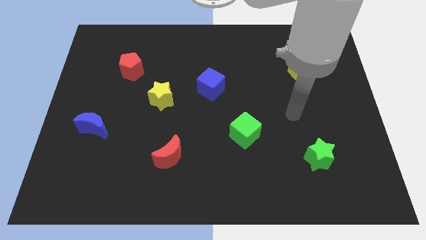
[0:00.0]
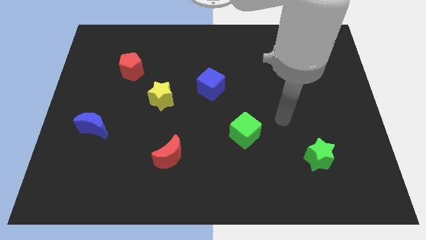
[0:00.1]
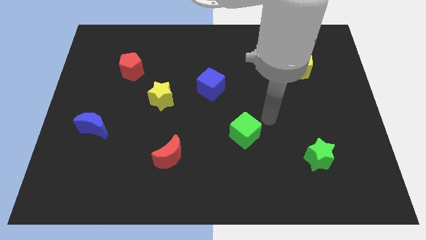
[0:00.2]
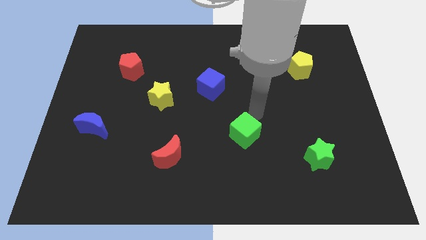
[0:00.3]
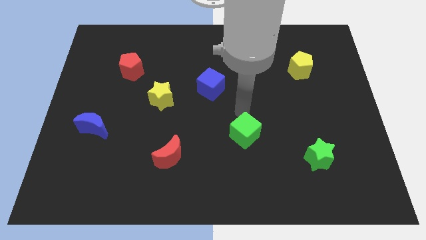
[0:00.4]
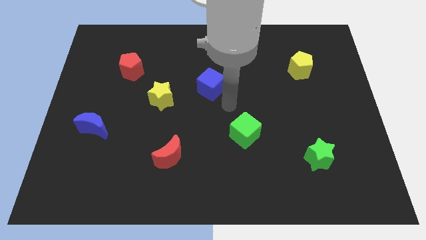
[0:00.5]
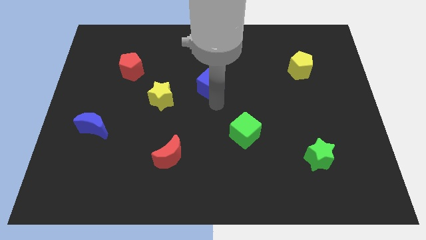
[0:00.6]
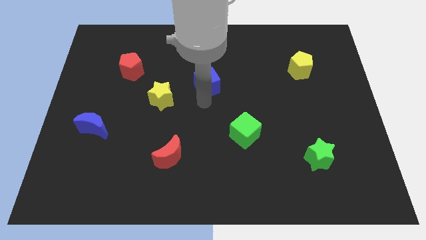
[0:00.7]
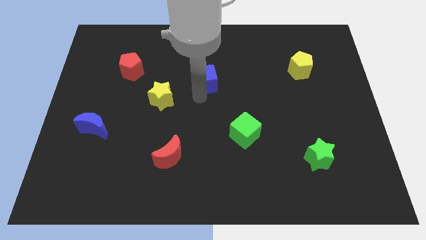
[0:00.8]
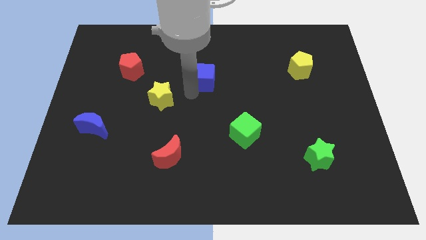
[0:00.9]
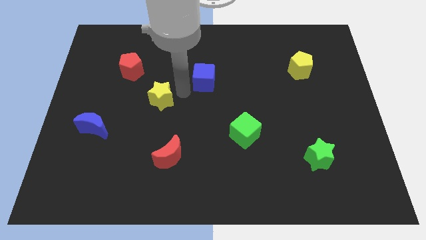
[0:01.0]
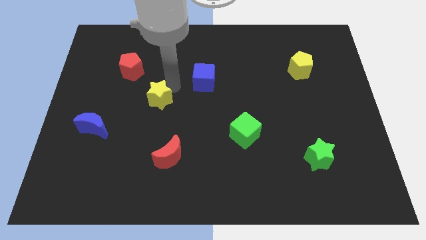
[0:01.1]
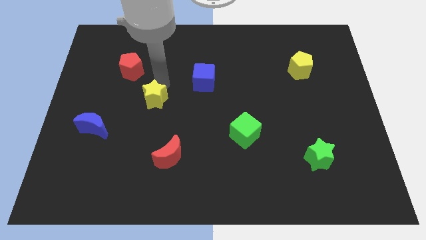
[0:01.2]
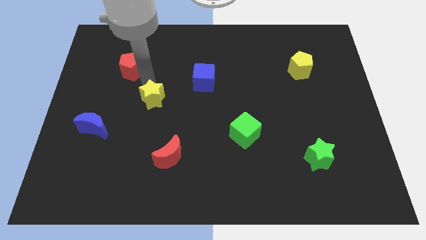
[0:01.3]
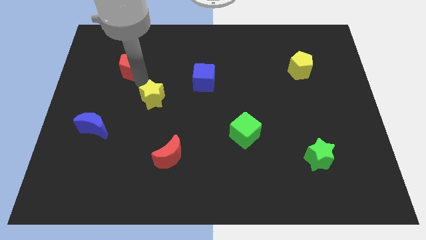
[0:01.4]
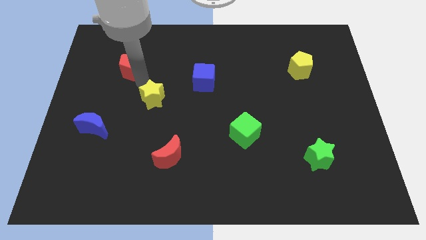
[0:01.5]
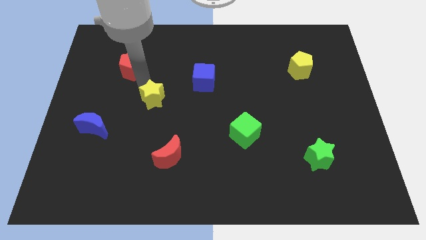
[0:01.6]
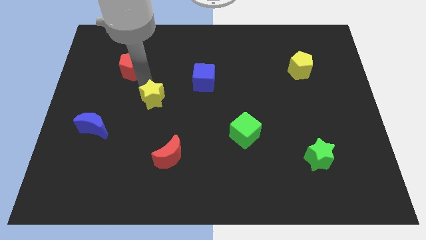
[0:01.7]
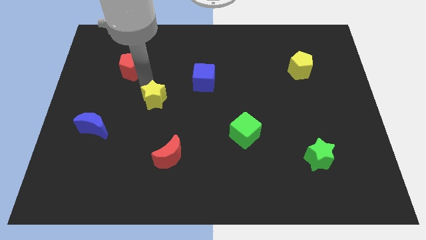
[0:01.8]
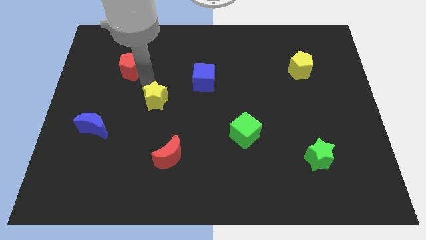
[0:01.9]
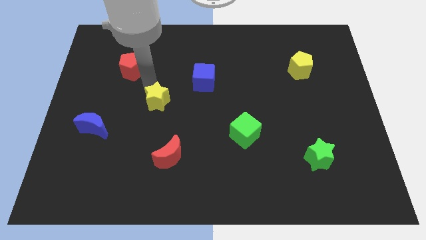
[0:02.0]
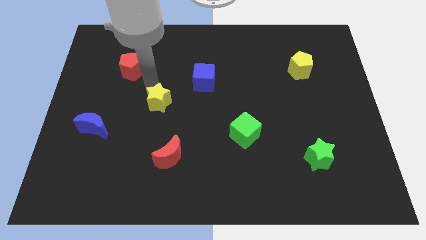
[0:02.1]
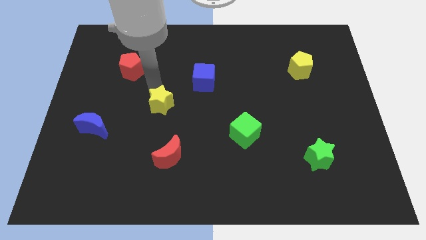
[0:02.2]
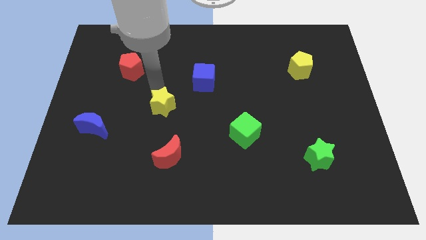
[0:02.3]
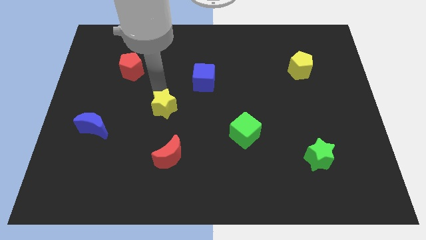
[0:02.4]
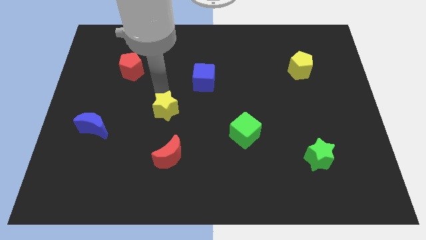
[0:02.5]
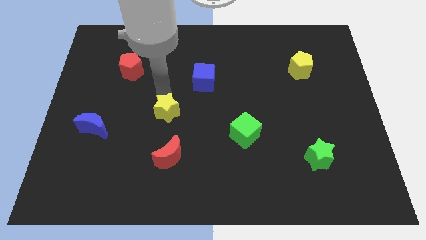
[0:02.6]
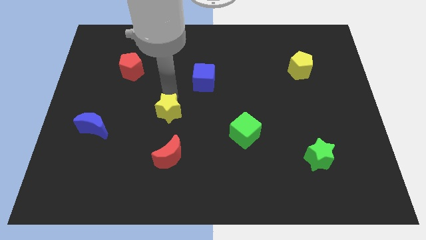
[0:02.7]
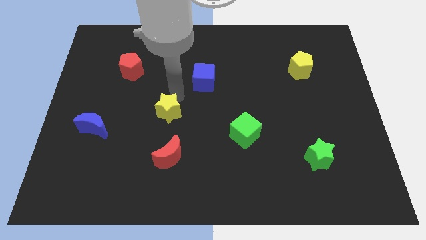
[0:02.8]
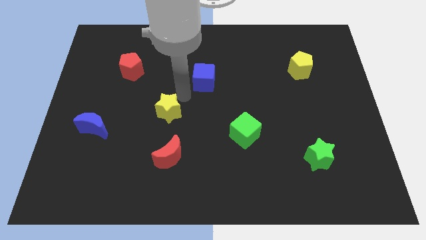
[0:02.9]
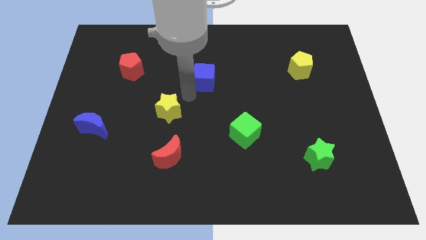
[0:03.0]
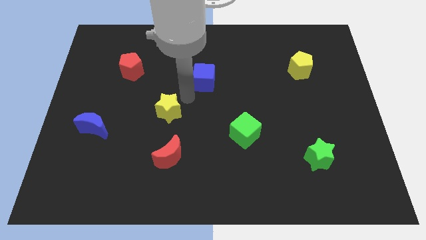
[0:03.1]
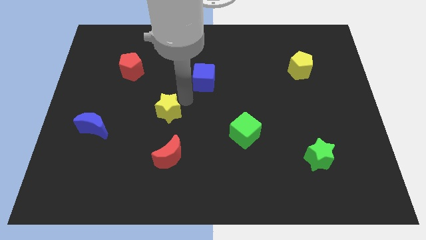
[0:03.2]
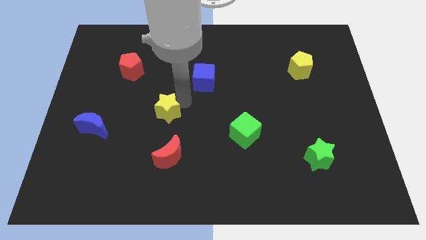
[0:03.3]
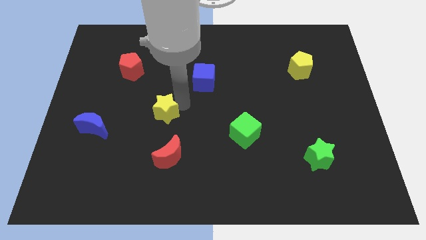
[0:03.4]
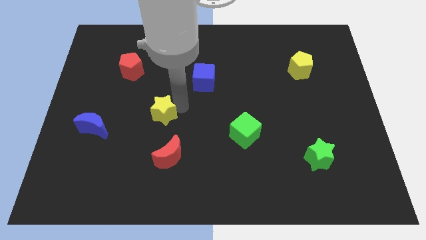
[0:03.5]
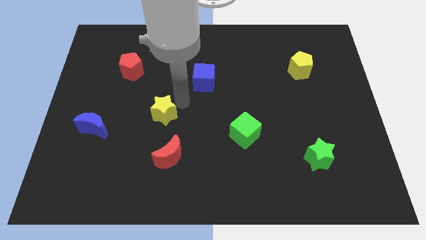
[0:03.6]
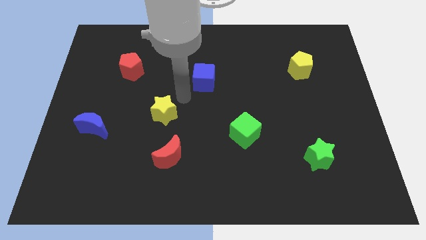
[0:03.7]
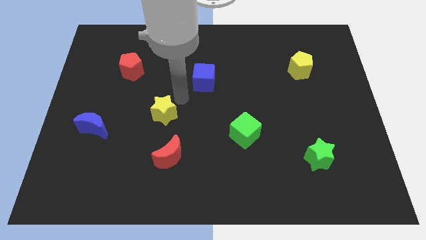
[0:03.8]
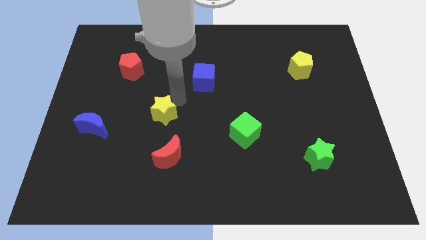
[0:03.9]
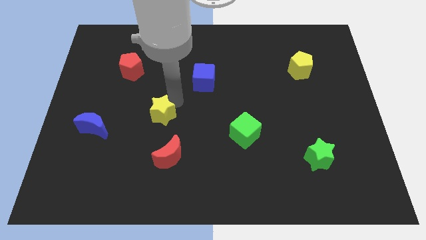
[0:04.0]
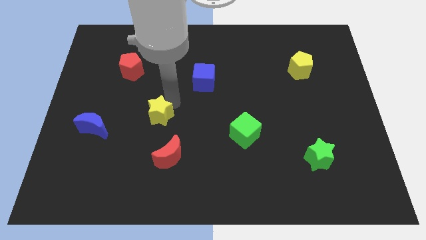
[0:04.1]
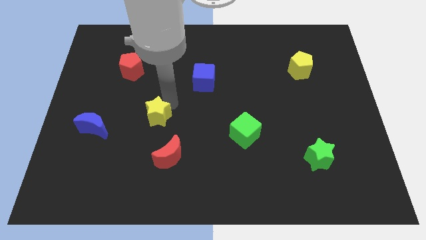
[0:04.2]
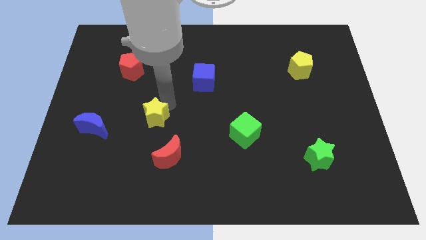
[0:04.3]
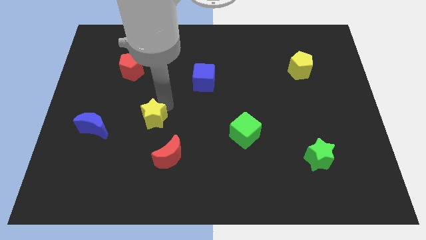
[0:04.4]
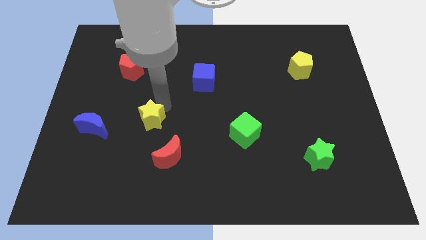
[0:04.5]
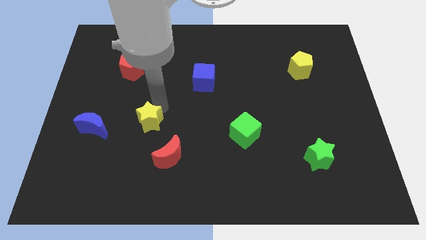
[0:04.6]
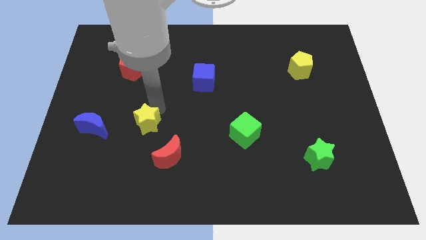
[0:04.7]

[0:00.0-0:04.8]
push the yellow star downwards a little

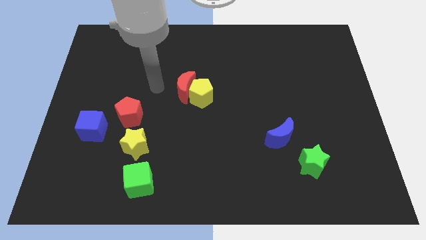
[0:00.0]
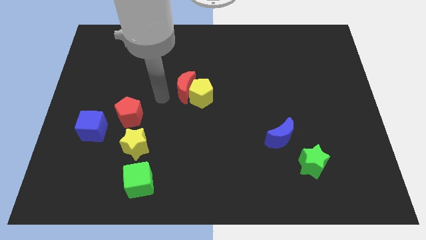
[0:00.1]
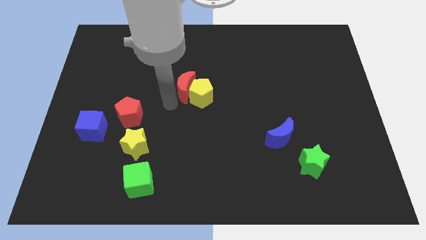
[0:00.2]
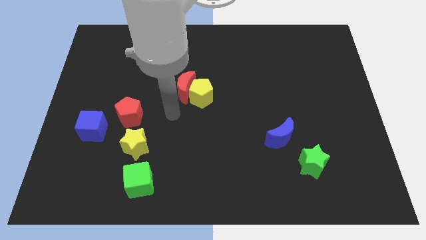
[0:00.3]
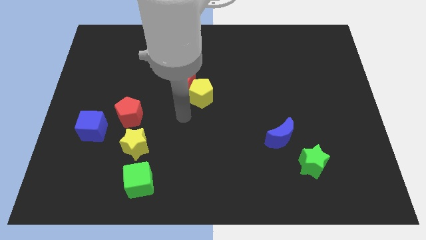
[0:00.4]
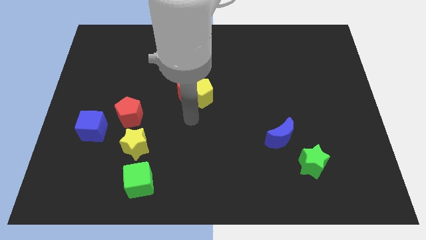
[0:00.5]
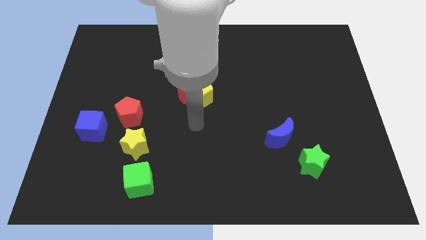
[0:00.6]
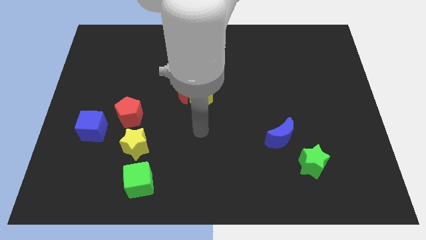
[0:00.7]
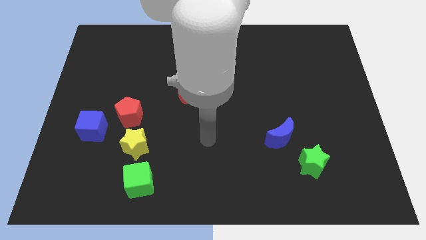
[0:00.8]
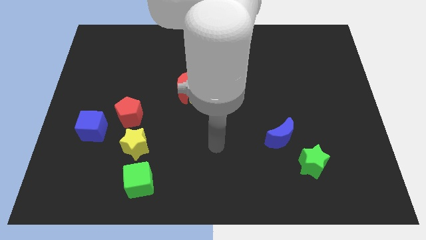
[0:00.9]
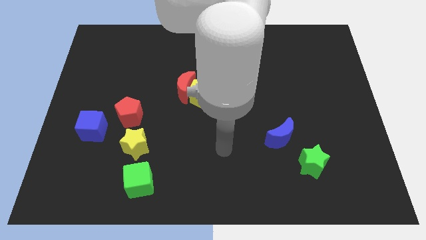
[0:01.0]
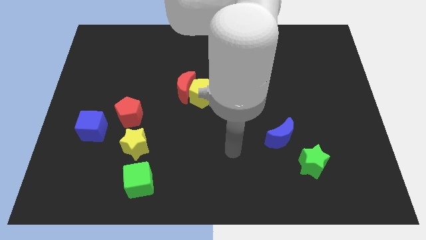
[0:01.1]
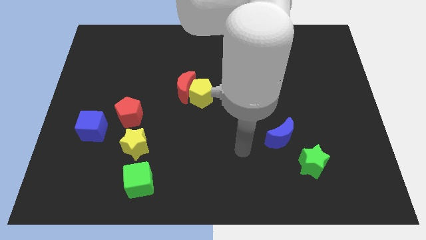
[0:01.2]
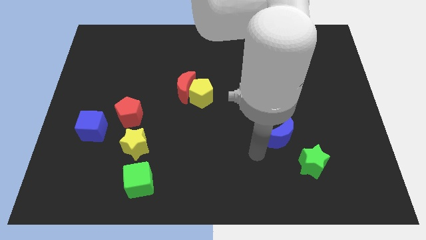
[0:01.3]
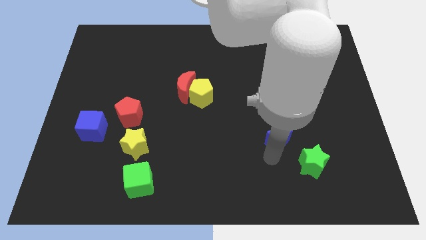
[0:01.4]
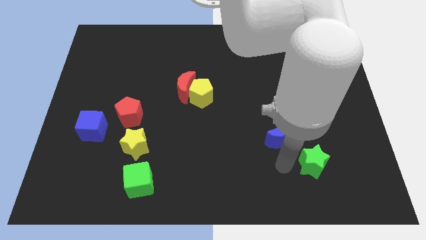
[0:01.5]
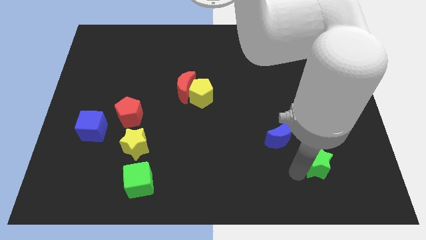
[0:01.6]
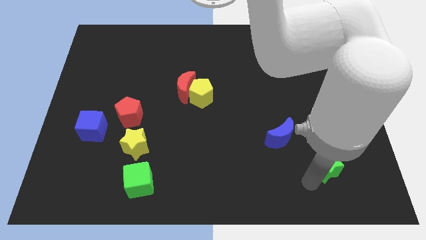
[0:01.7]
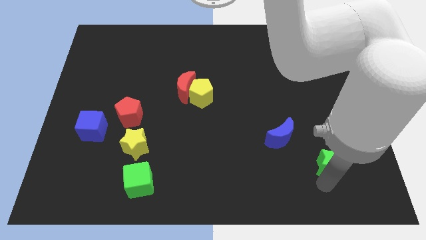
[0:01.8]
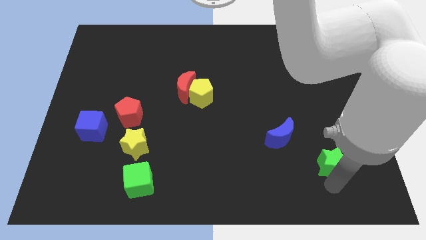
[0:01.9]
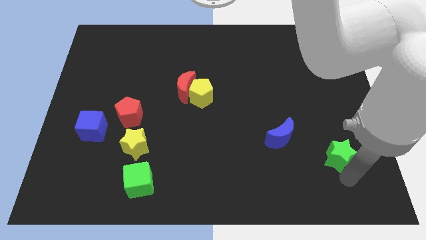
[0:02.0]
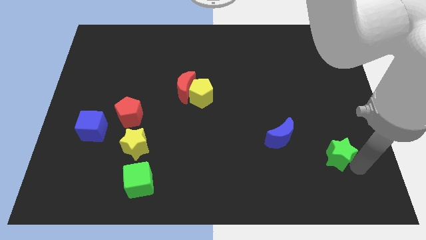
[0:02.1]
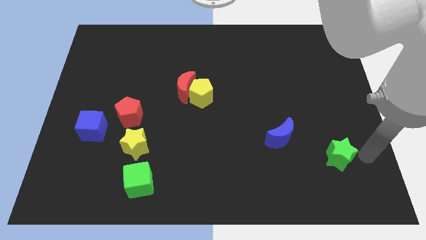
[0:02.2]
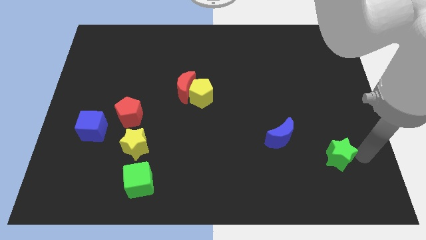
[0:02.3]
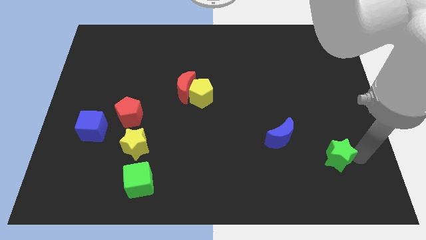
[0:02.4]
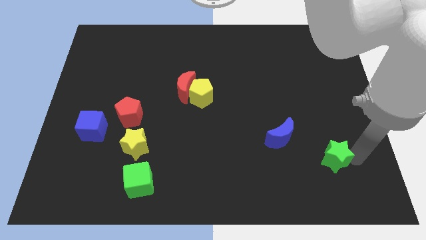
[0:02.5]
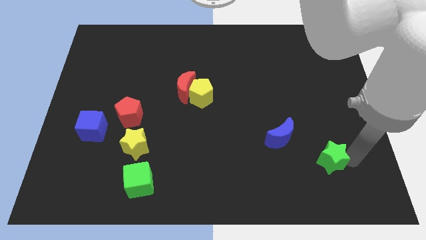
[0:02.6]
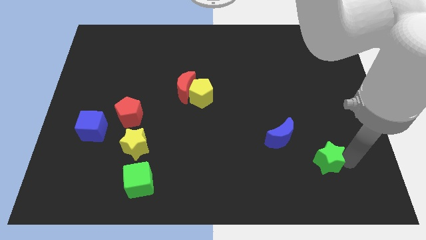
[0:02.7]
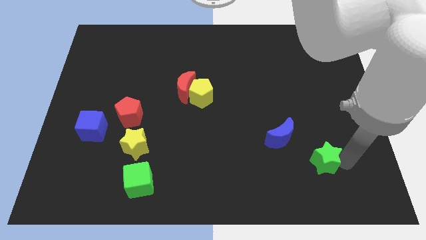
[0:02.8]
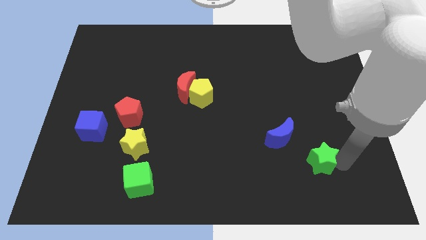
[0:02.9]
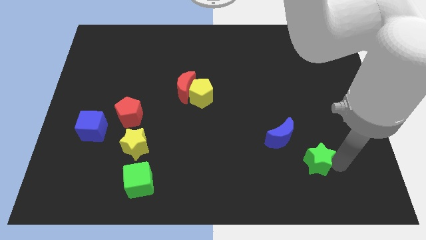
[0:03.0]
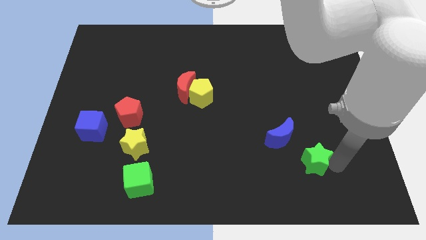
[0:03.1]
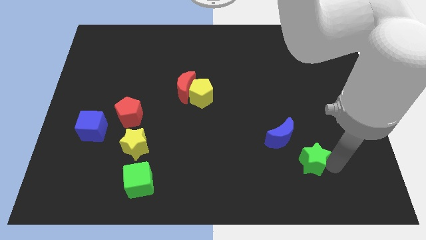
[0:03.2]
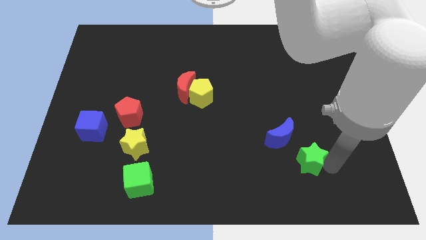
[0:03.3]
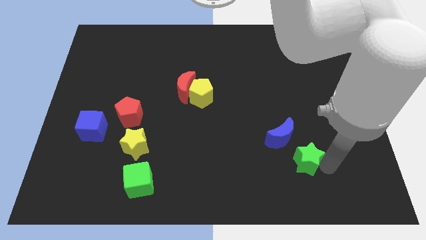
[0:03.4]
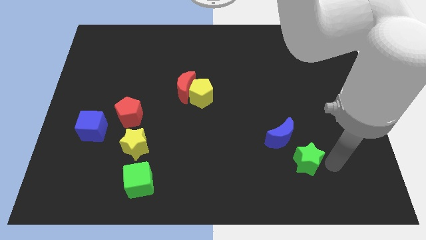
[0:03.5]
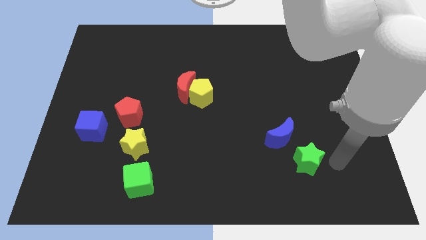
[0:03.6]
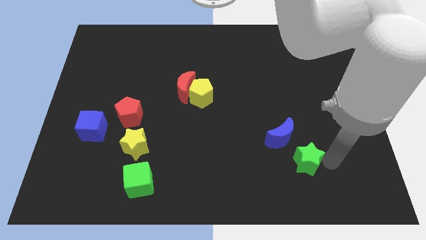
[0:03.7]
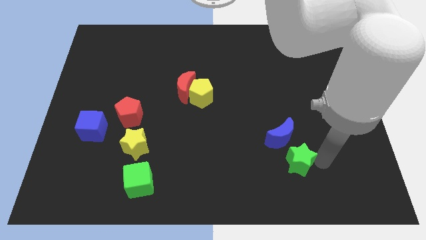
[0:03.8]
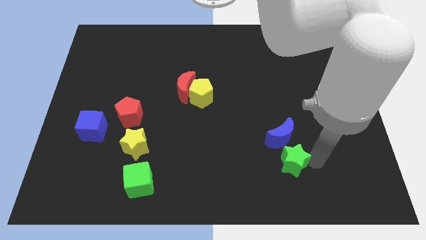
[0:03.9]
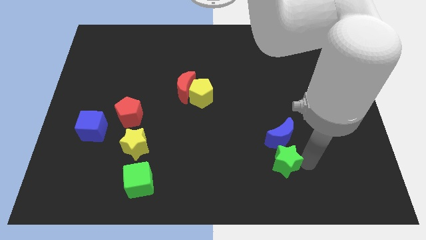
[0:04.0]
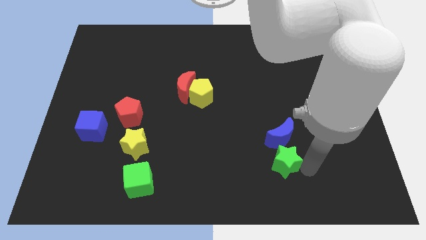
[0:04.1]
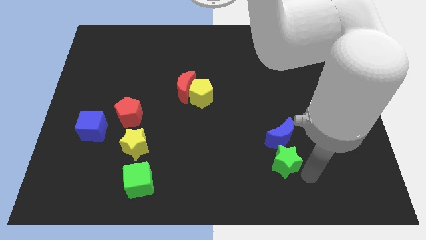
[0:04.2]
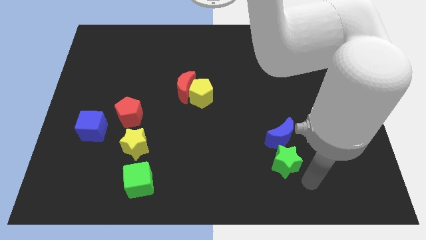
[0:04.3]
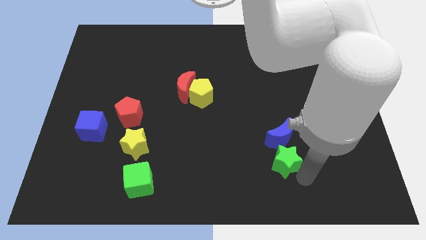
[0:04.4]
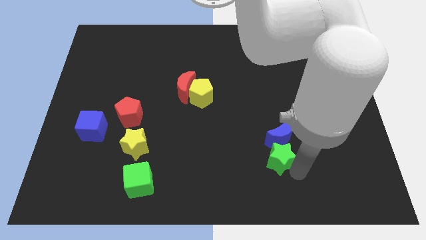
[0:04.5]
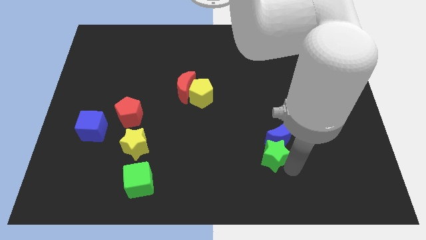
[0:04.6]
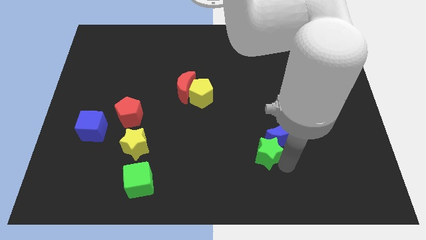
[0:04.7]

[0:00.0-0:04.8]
slide the green star upwards and left somewhat
